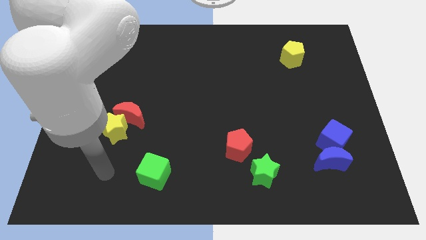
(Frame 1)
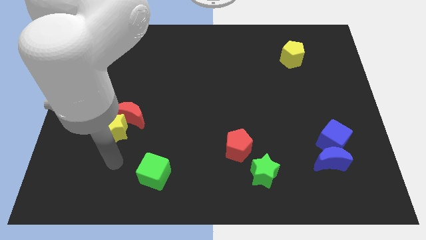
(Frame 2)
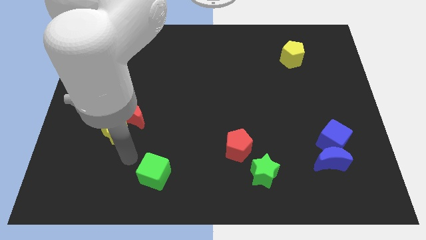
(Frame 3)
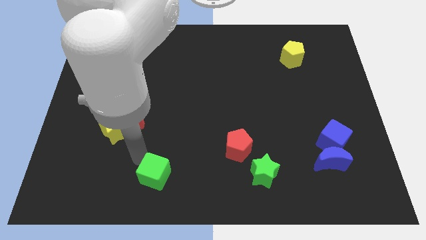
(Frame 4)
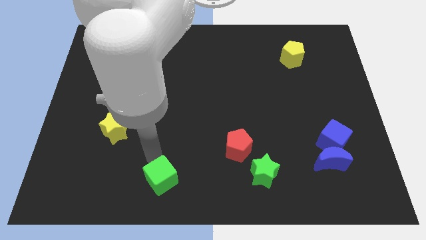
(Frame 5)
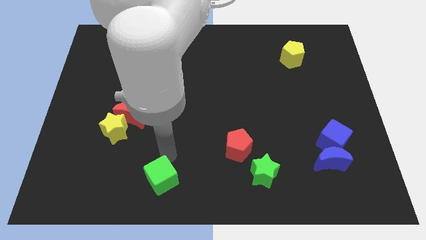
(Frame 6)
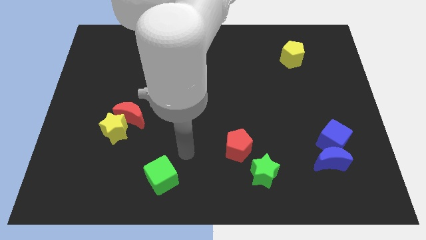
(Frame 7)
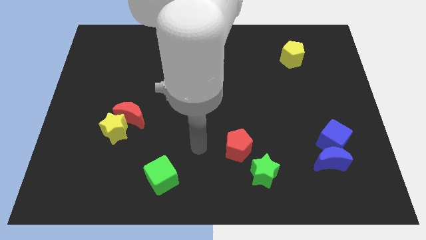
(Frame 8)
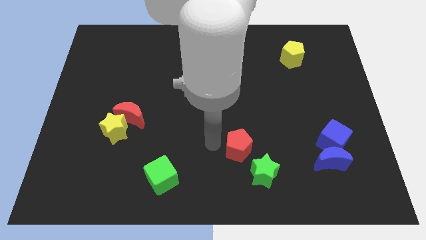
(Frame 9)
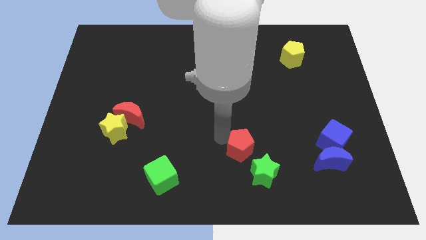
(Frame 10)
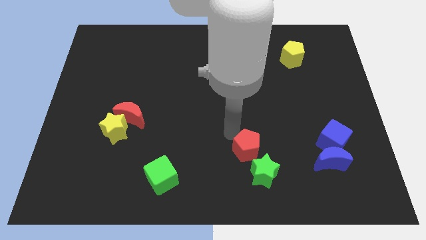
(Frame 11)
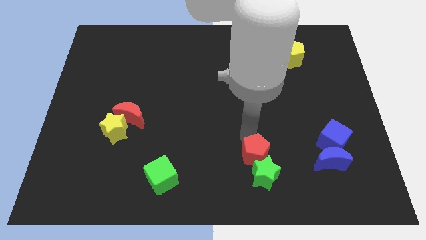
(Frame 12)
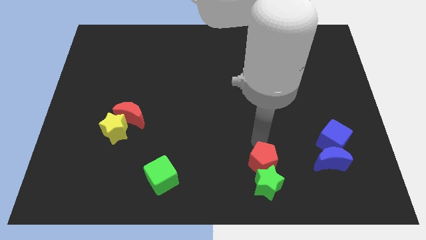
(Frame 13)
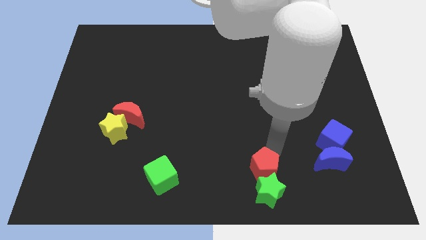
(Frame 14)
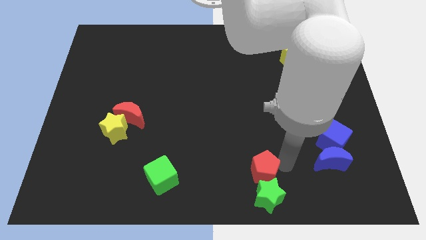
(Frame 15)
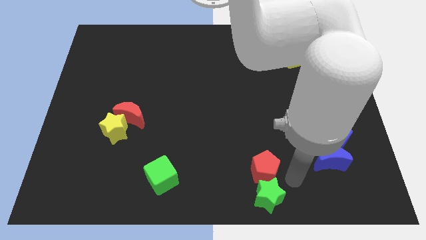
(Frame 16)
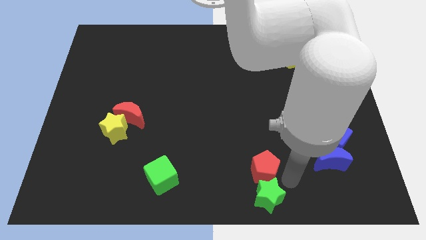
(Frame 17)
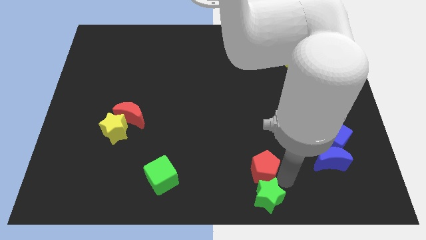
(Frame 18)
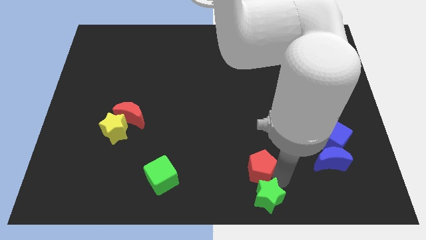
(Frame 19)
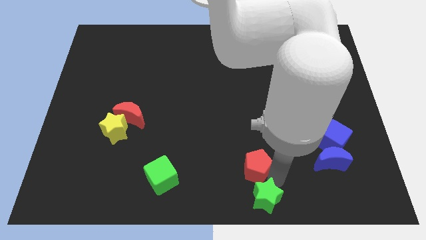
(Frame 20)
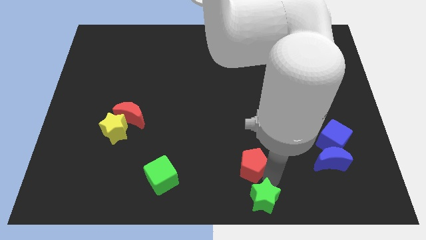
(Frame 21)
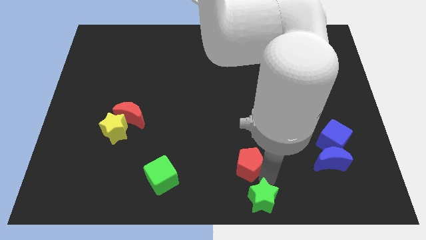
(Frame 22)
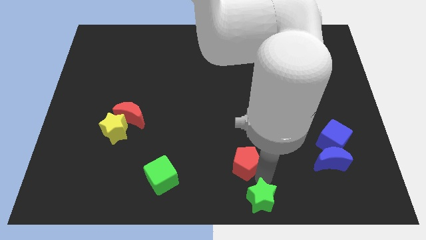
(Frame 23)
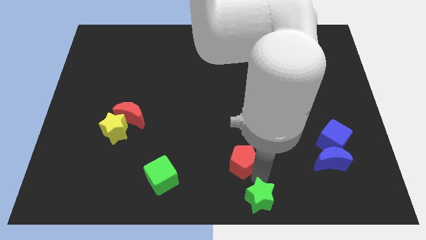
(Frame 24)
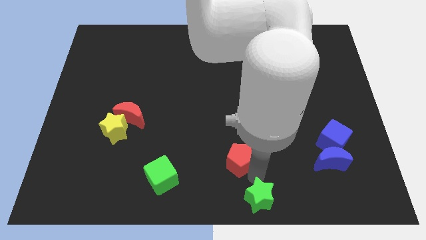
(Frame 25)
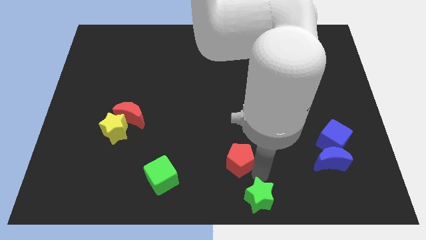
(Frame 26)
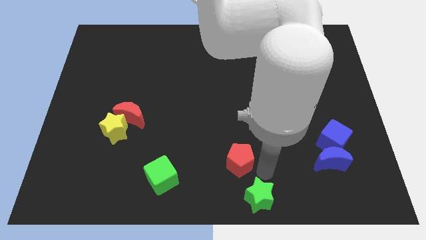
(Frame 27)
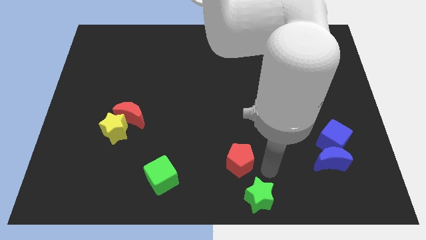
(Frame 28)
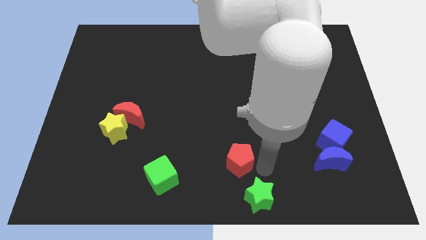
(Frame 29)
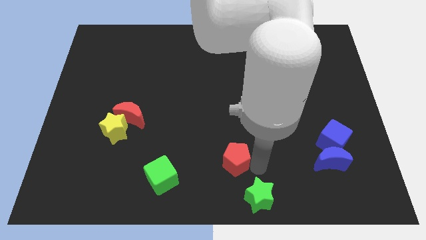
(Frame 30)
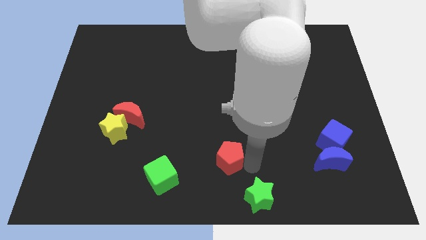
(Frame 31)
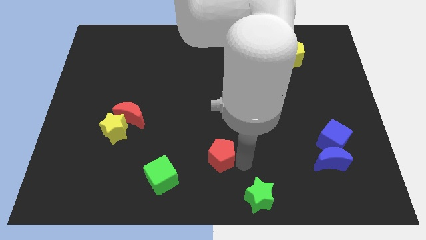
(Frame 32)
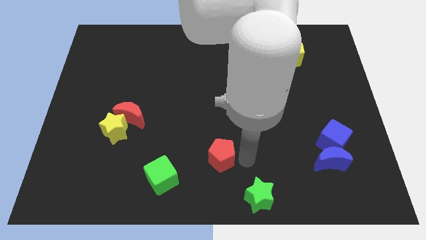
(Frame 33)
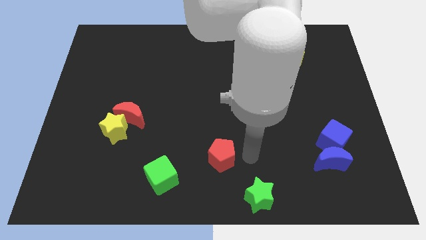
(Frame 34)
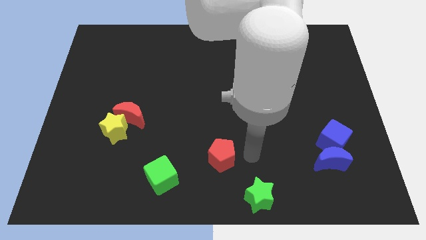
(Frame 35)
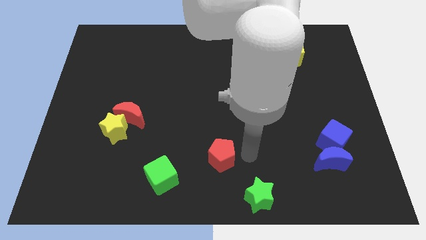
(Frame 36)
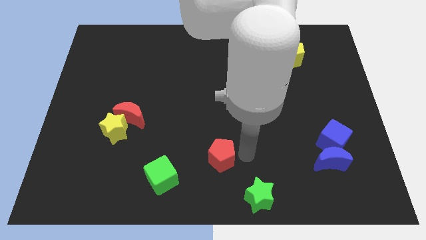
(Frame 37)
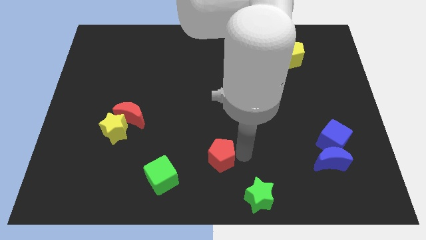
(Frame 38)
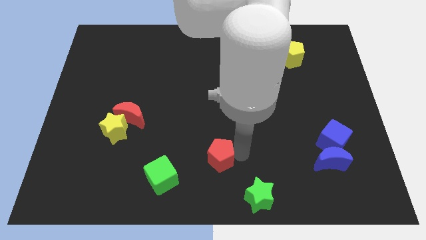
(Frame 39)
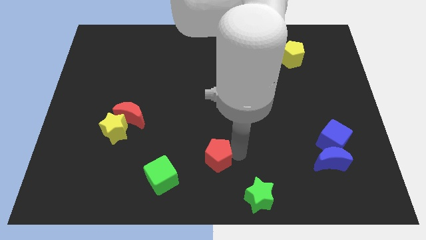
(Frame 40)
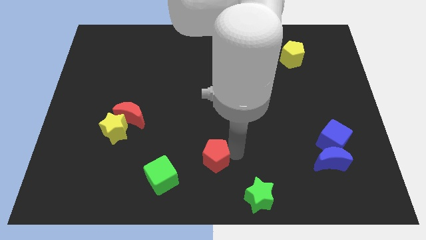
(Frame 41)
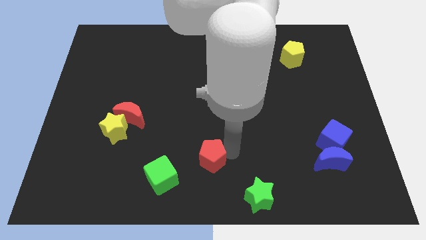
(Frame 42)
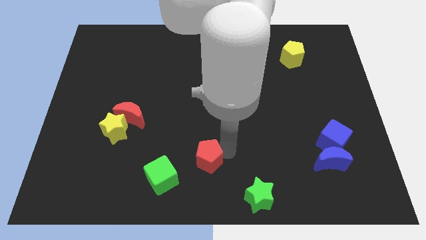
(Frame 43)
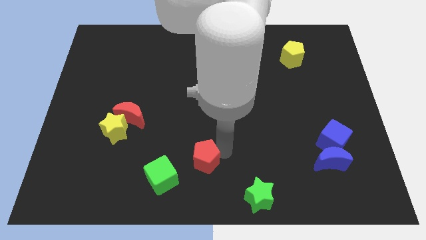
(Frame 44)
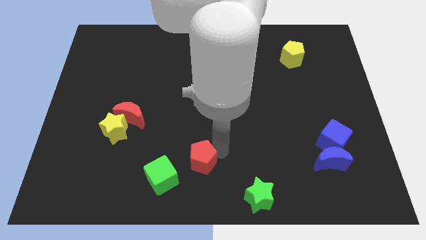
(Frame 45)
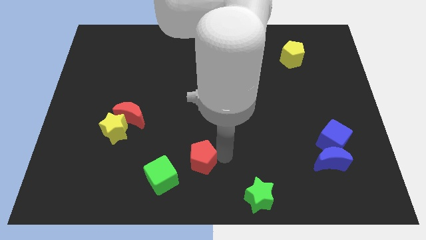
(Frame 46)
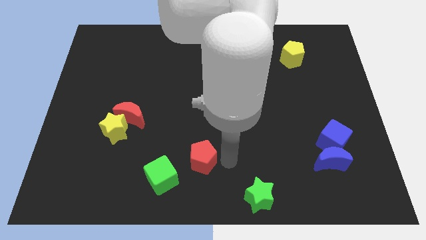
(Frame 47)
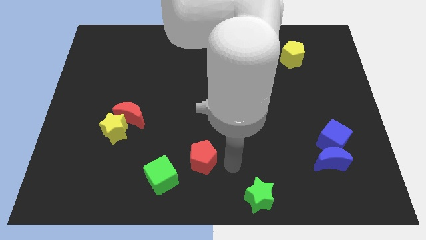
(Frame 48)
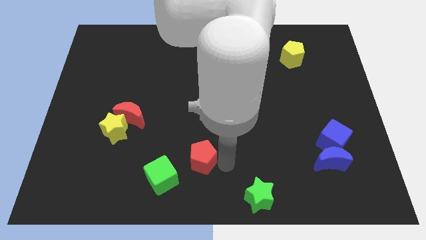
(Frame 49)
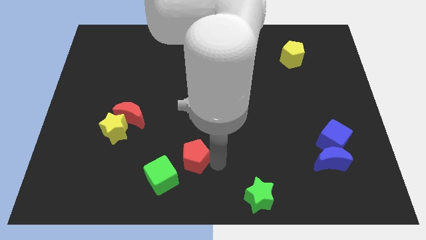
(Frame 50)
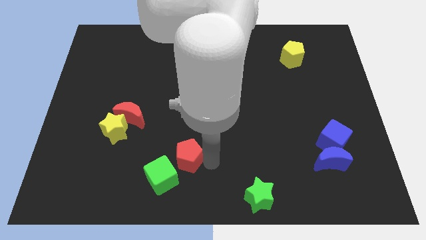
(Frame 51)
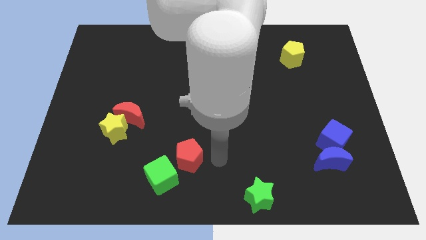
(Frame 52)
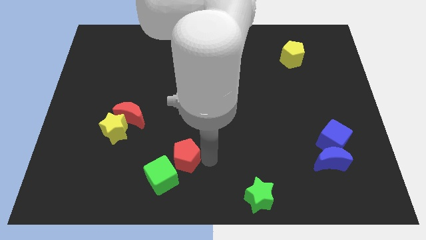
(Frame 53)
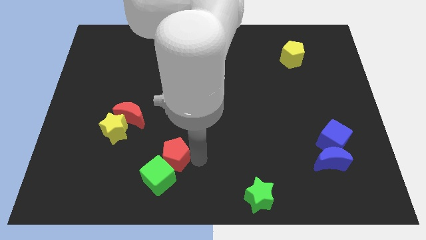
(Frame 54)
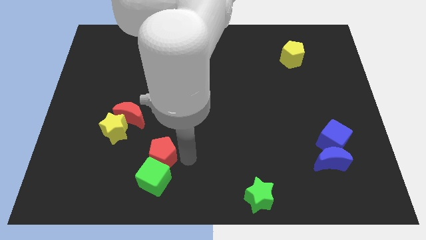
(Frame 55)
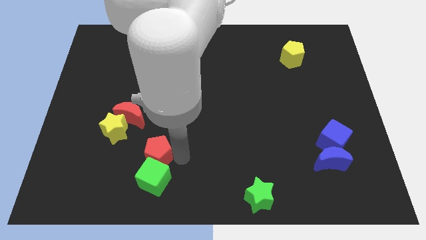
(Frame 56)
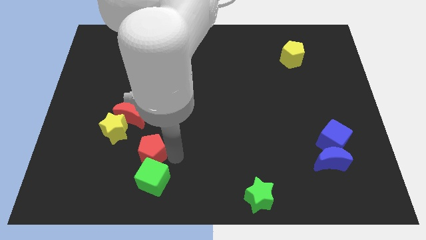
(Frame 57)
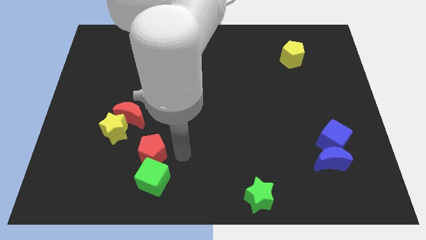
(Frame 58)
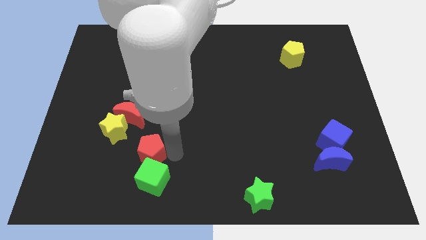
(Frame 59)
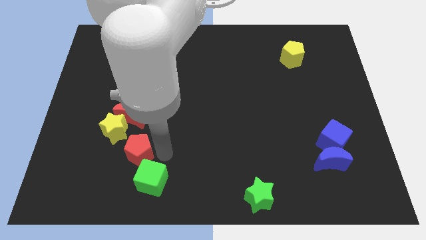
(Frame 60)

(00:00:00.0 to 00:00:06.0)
push the red pentagon left

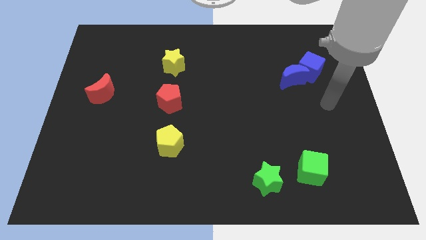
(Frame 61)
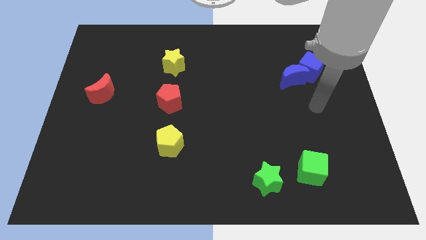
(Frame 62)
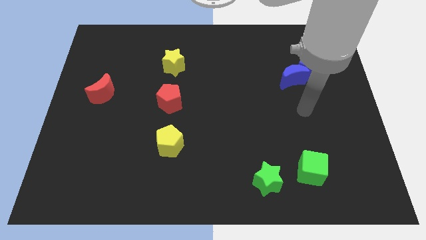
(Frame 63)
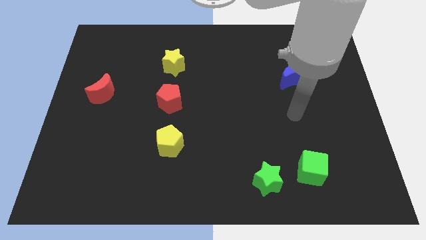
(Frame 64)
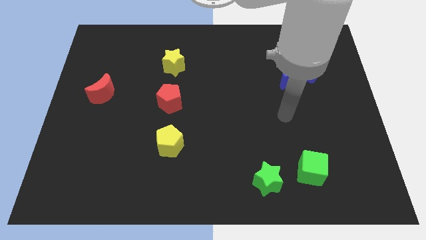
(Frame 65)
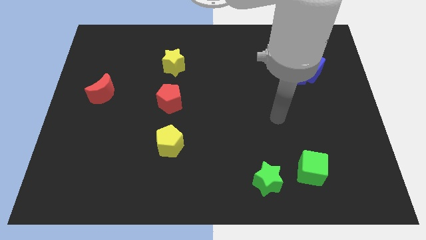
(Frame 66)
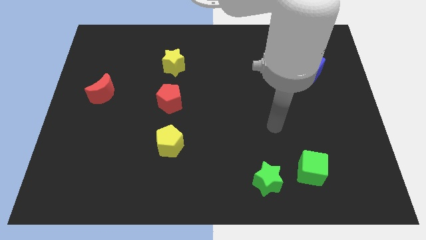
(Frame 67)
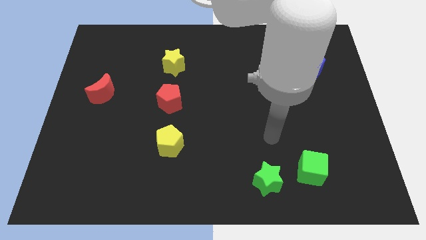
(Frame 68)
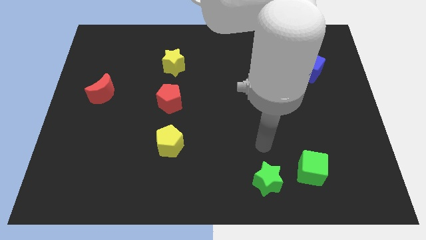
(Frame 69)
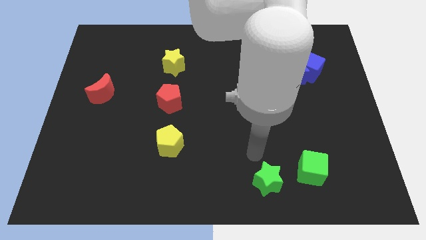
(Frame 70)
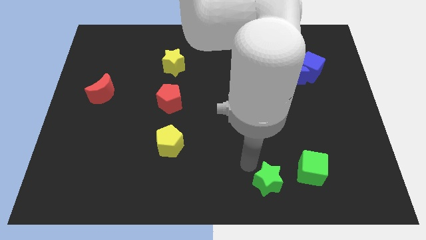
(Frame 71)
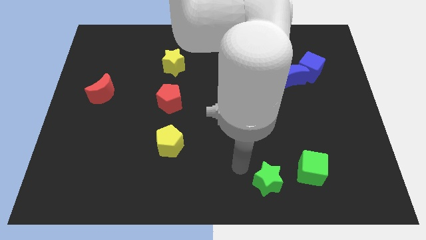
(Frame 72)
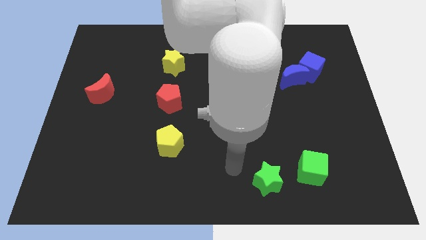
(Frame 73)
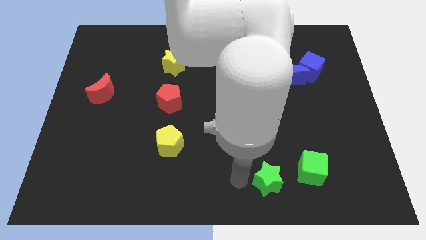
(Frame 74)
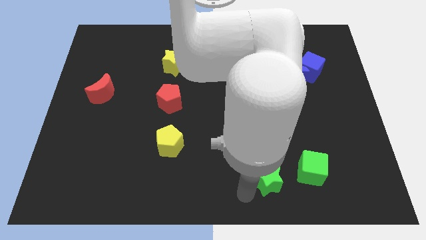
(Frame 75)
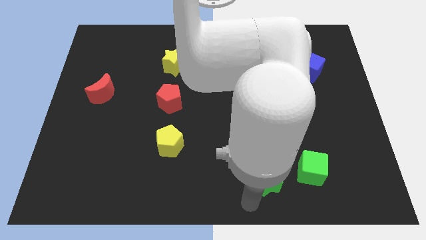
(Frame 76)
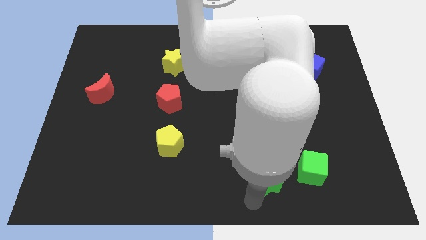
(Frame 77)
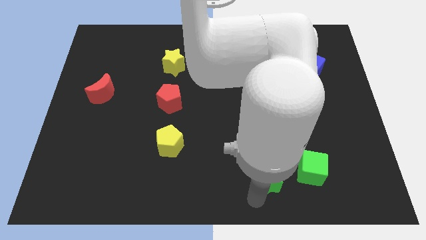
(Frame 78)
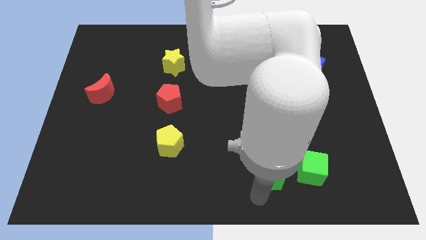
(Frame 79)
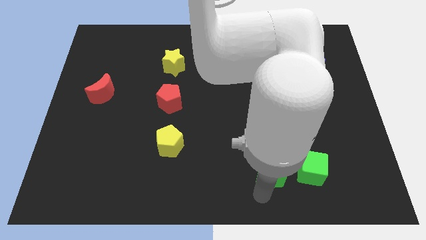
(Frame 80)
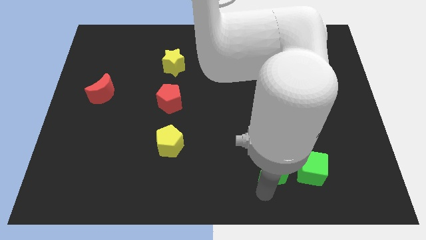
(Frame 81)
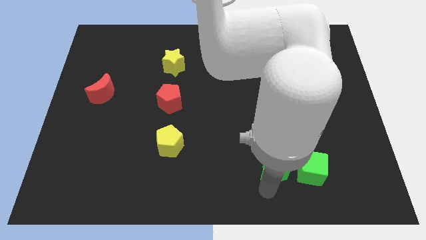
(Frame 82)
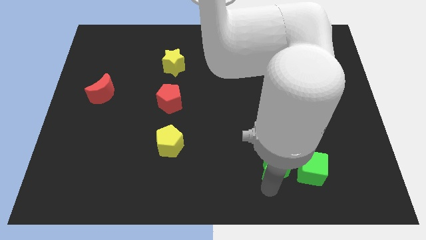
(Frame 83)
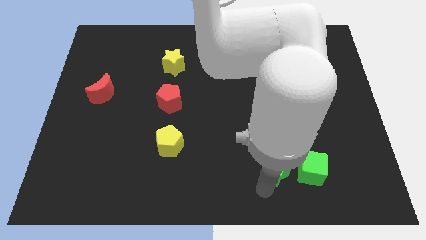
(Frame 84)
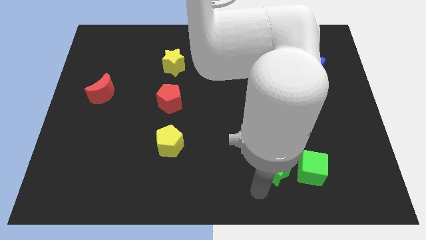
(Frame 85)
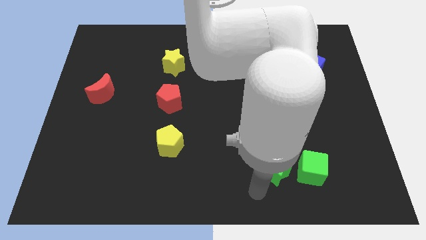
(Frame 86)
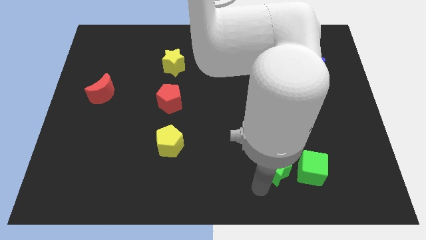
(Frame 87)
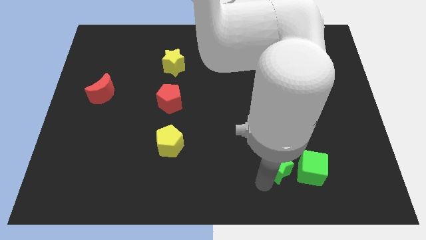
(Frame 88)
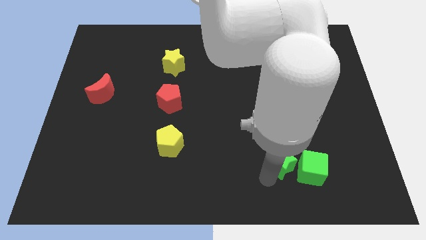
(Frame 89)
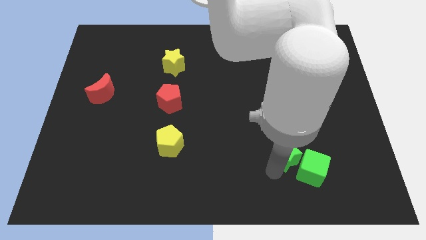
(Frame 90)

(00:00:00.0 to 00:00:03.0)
push the green star diagonally up and to the right slightly
